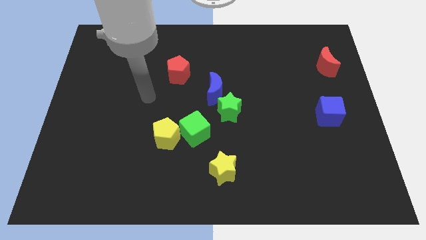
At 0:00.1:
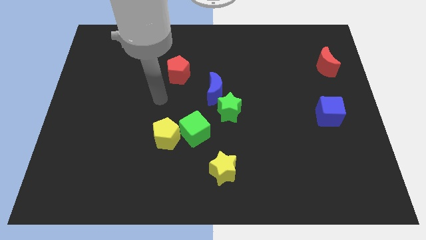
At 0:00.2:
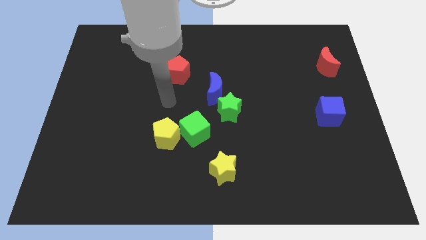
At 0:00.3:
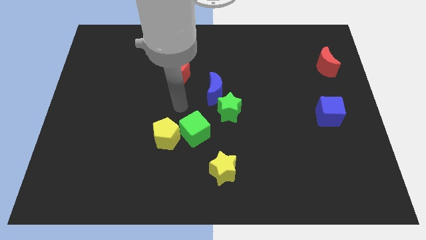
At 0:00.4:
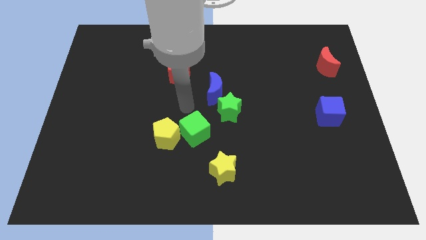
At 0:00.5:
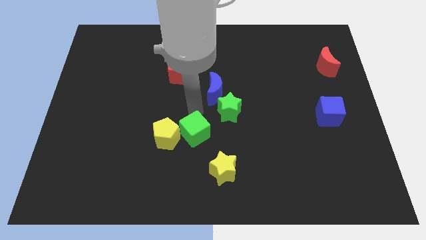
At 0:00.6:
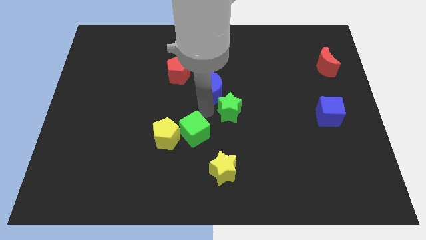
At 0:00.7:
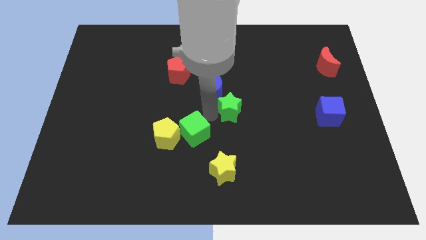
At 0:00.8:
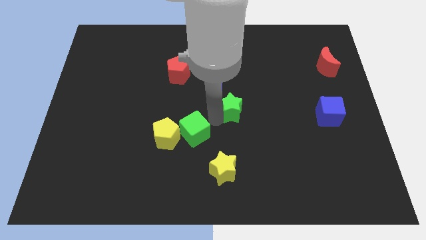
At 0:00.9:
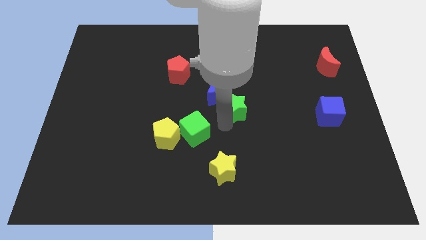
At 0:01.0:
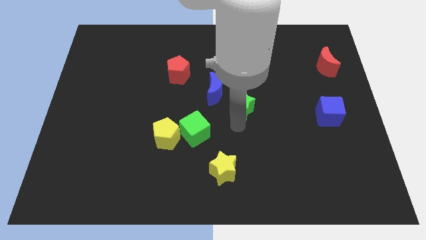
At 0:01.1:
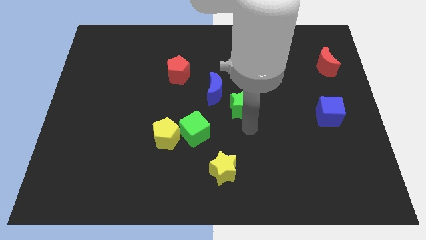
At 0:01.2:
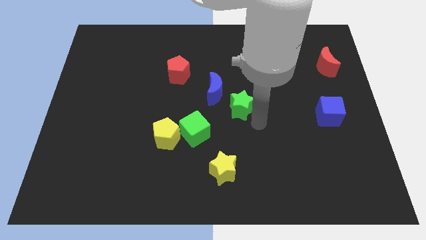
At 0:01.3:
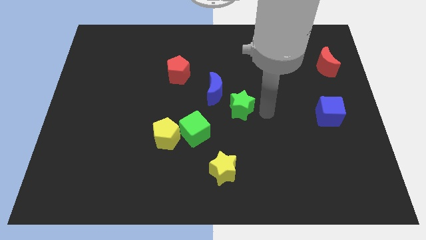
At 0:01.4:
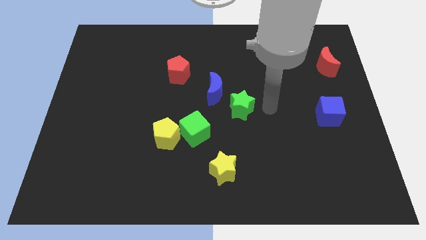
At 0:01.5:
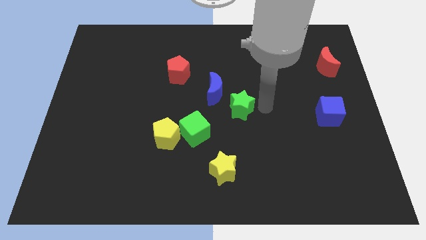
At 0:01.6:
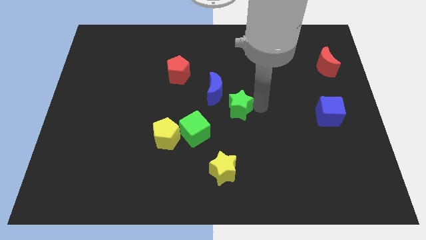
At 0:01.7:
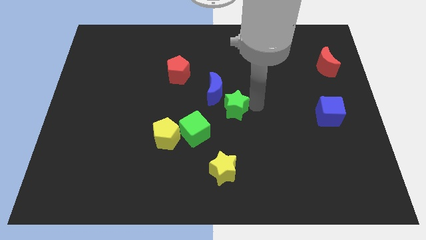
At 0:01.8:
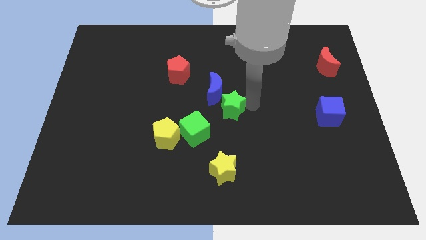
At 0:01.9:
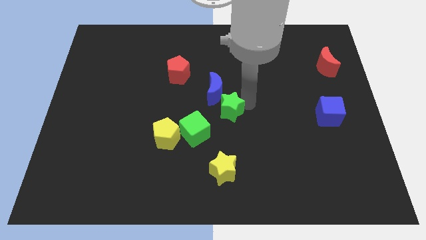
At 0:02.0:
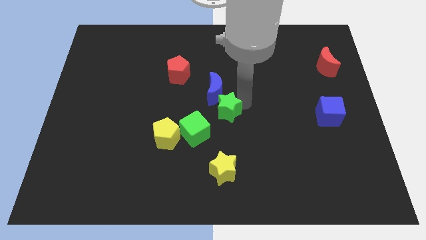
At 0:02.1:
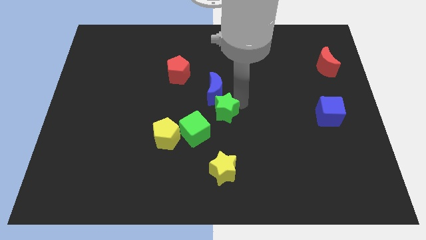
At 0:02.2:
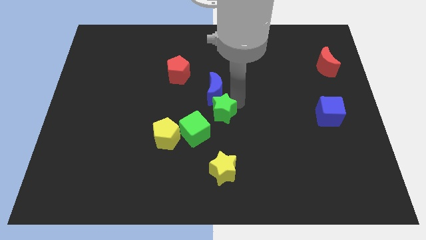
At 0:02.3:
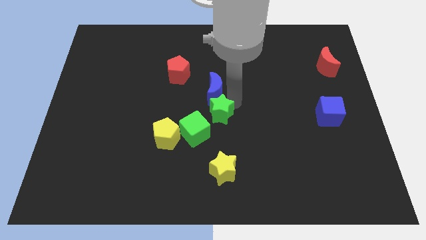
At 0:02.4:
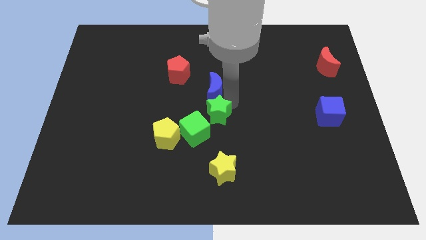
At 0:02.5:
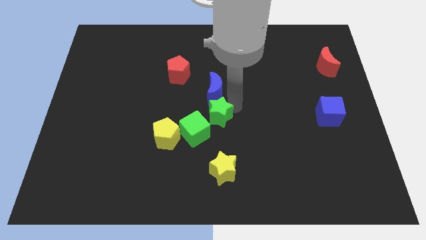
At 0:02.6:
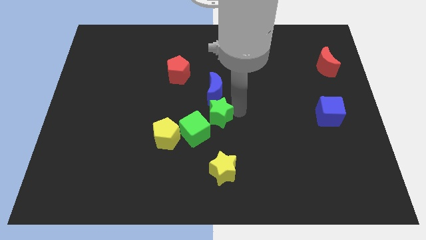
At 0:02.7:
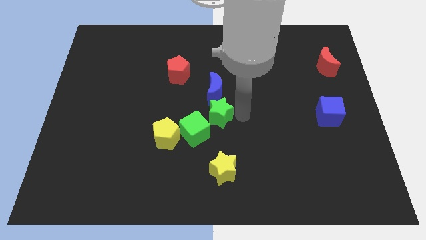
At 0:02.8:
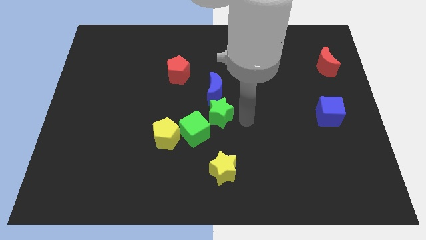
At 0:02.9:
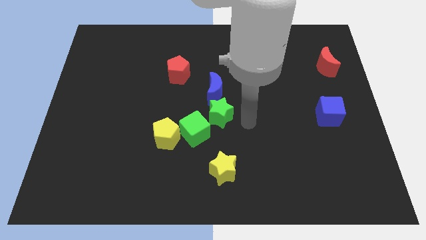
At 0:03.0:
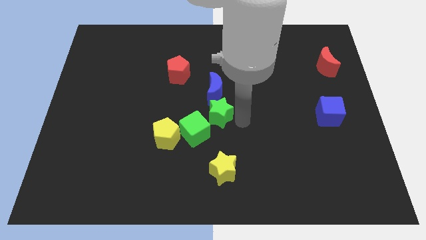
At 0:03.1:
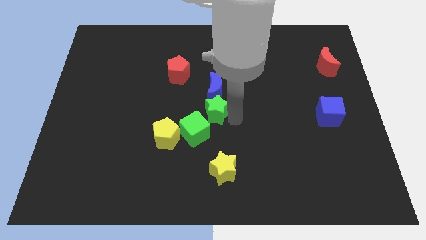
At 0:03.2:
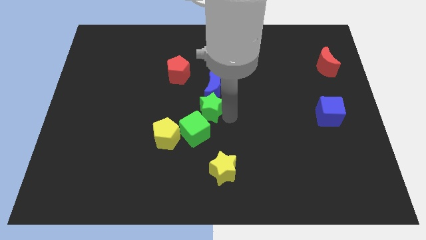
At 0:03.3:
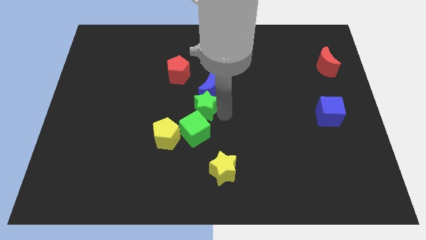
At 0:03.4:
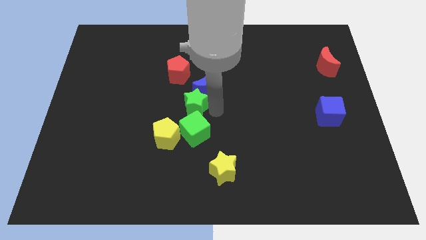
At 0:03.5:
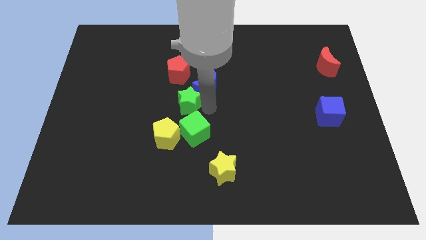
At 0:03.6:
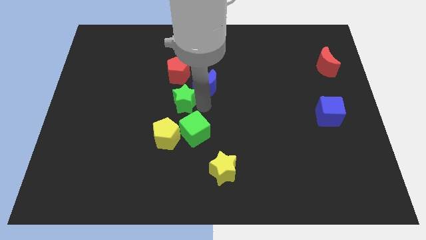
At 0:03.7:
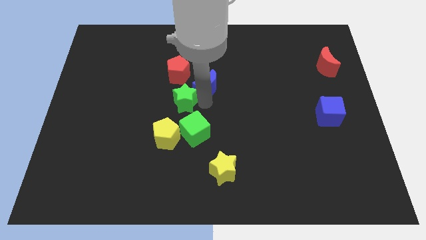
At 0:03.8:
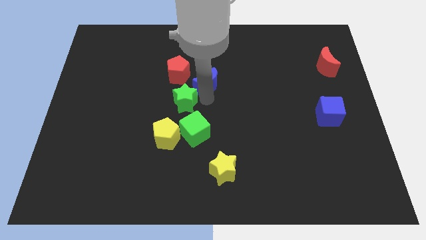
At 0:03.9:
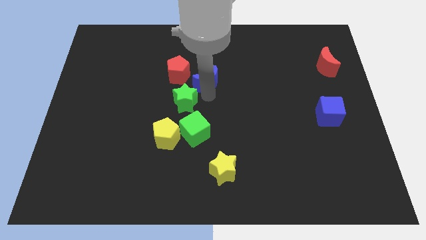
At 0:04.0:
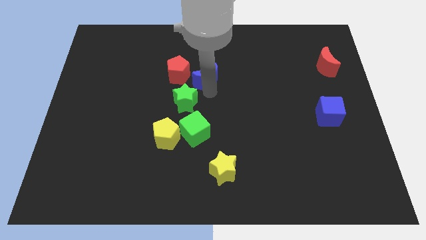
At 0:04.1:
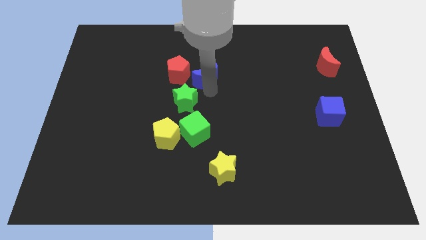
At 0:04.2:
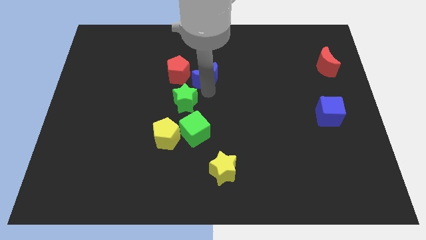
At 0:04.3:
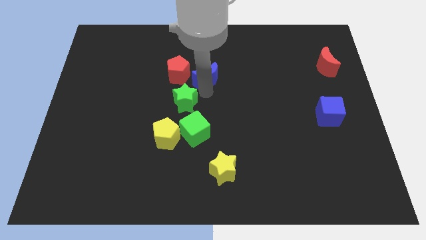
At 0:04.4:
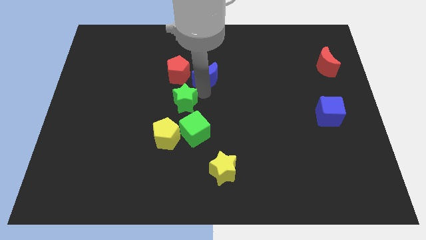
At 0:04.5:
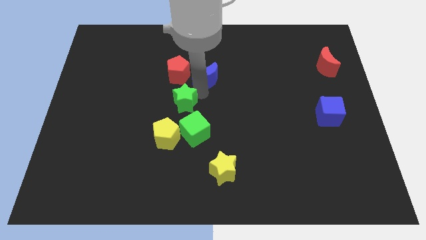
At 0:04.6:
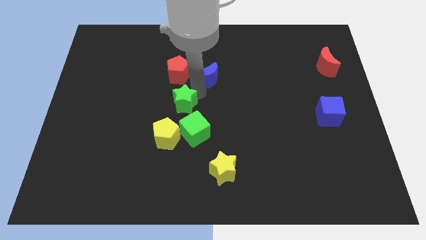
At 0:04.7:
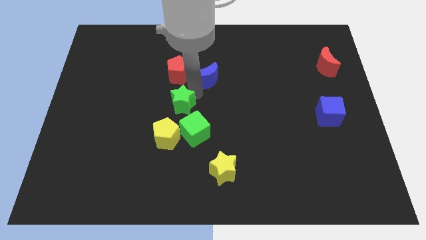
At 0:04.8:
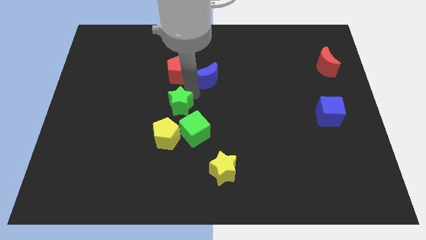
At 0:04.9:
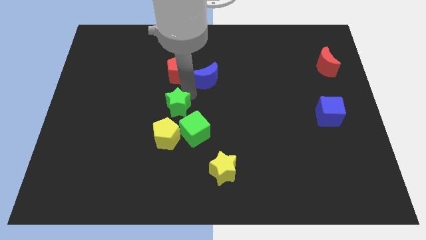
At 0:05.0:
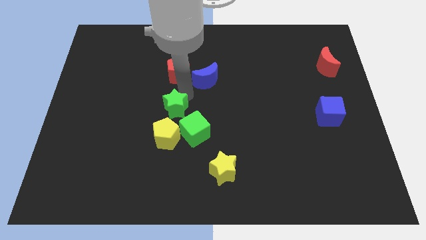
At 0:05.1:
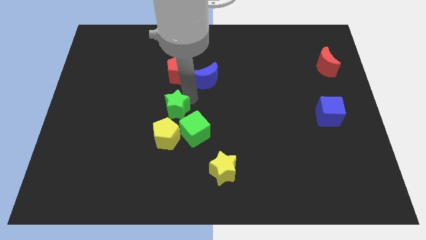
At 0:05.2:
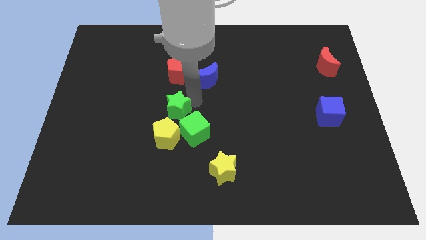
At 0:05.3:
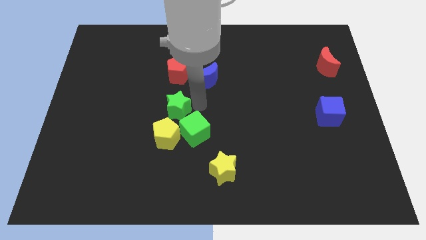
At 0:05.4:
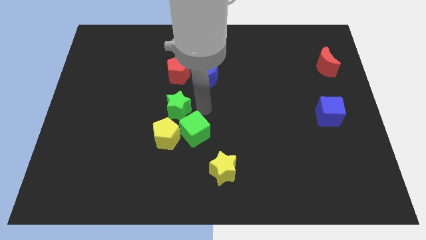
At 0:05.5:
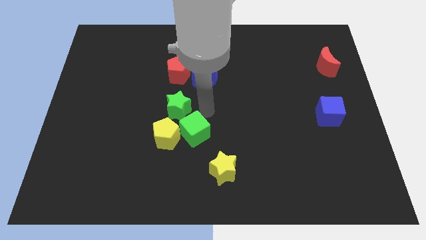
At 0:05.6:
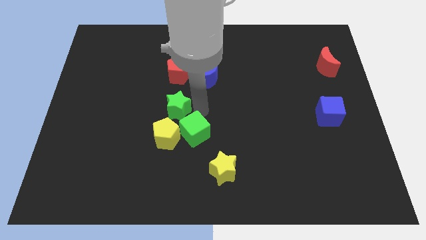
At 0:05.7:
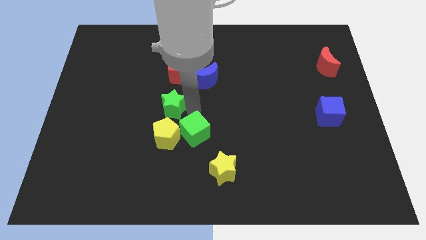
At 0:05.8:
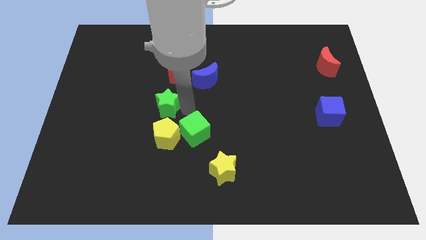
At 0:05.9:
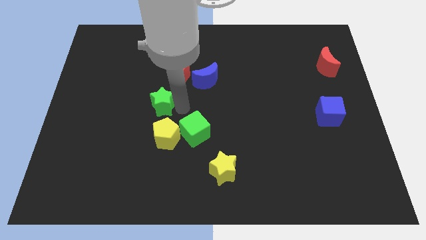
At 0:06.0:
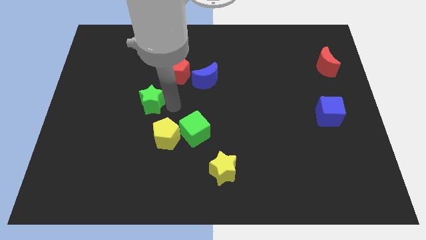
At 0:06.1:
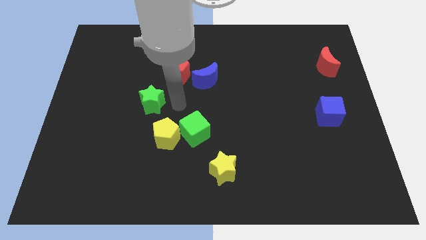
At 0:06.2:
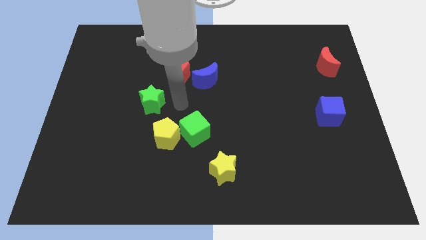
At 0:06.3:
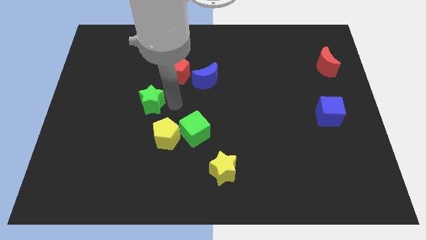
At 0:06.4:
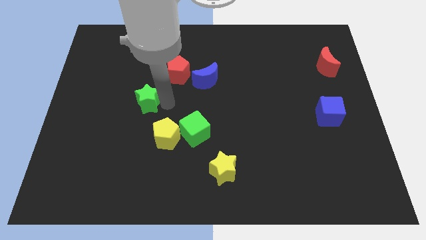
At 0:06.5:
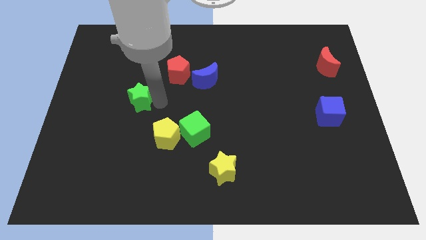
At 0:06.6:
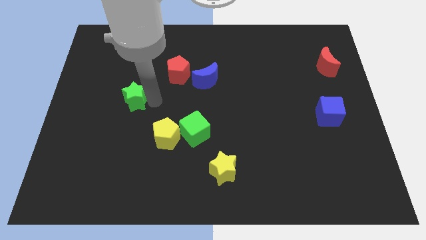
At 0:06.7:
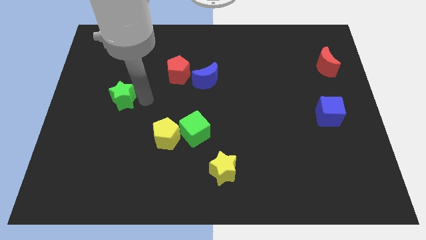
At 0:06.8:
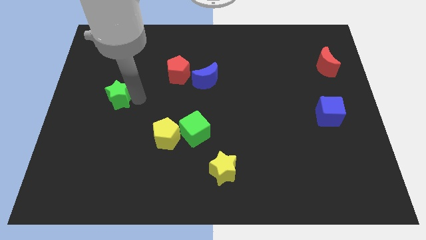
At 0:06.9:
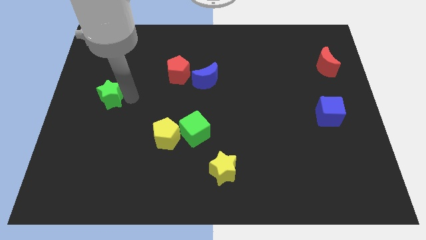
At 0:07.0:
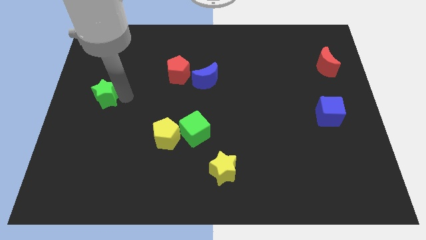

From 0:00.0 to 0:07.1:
put the green star to the left side of the board
